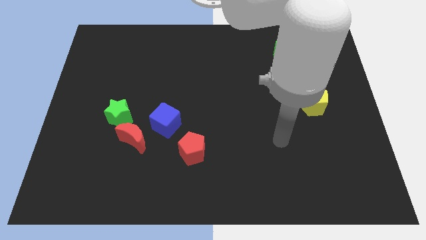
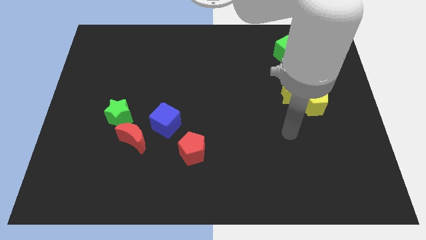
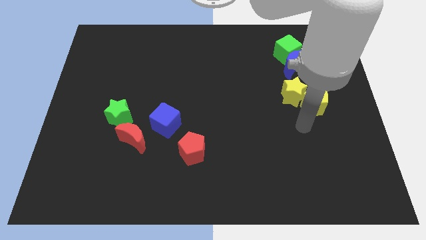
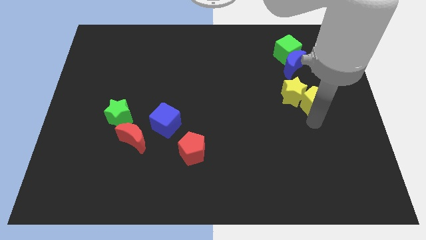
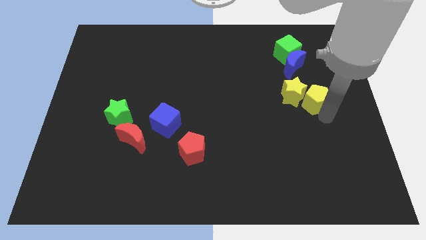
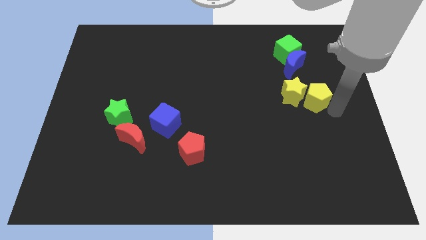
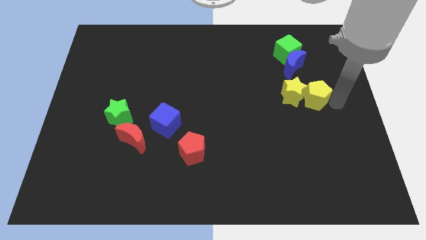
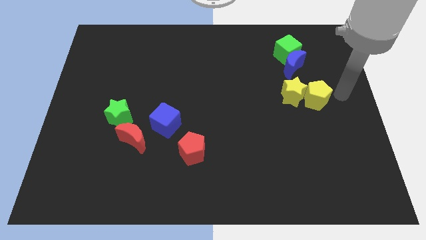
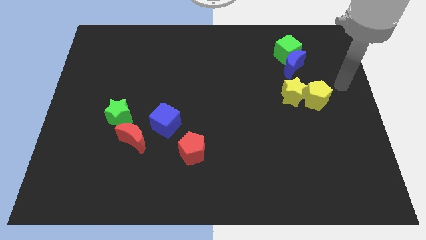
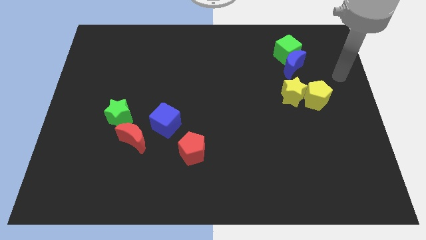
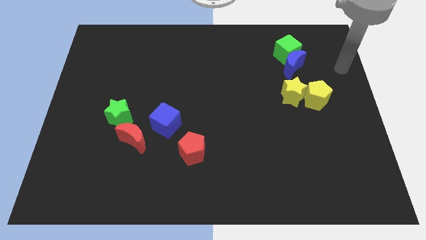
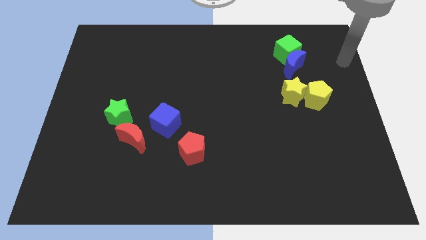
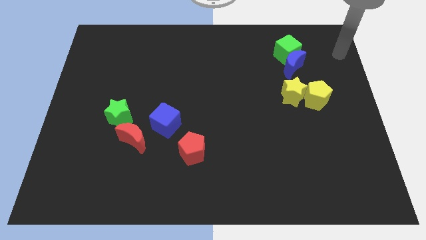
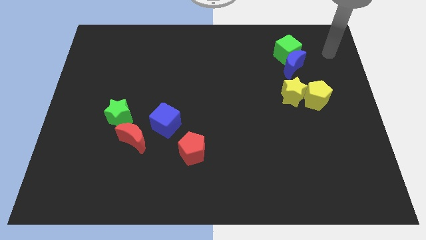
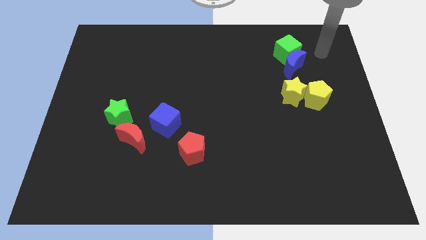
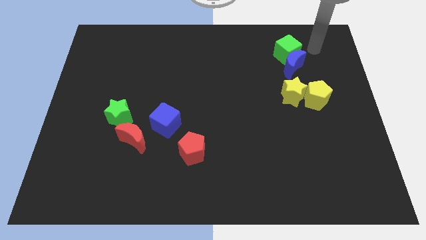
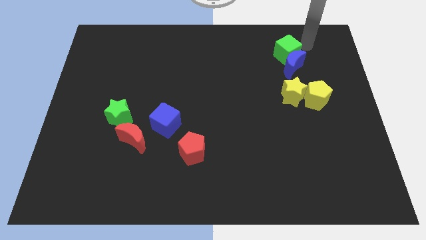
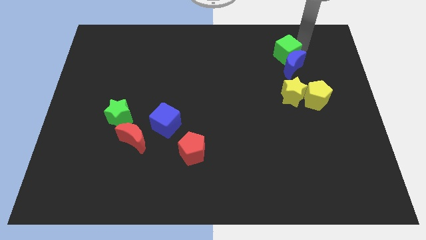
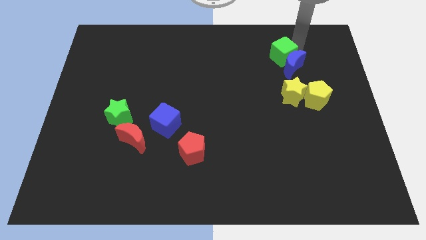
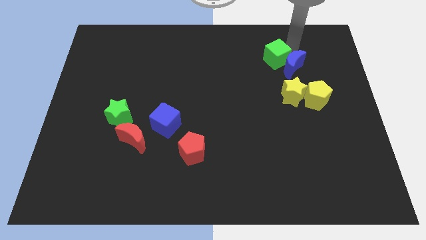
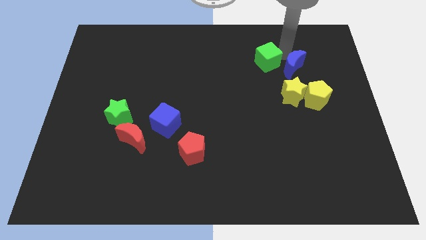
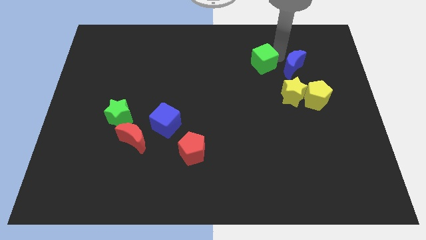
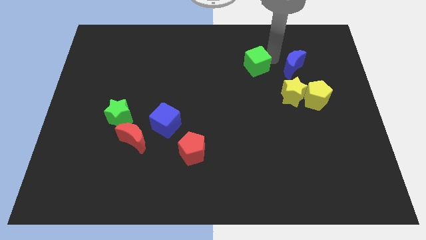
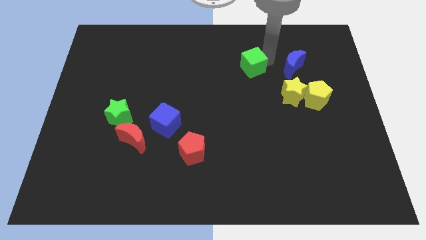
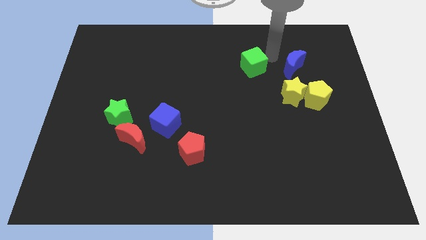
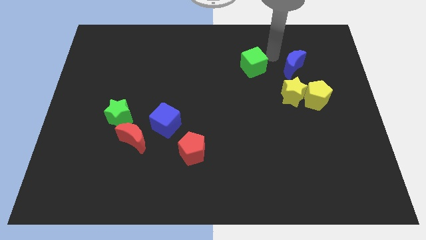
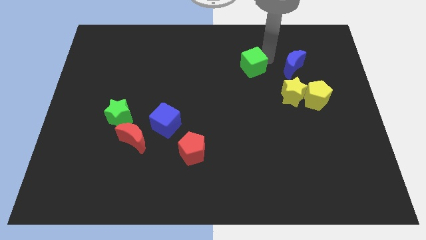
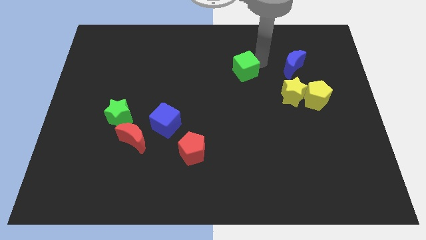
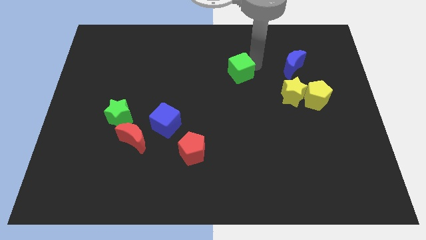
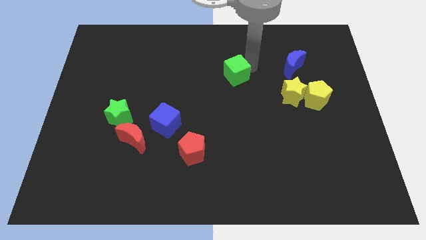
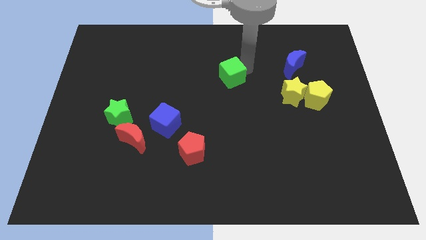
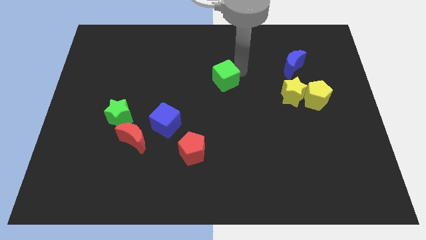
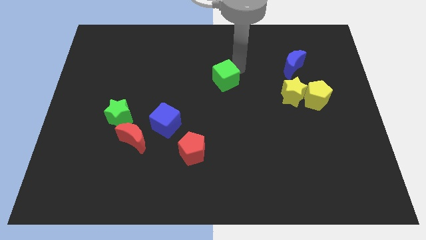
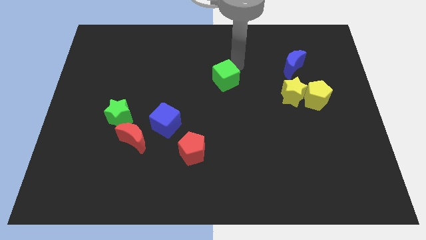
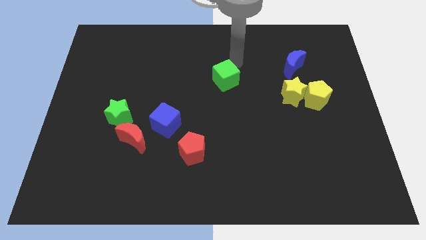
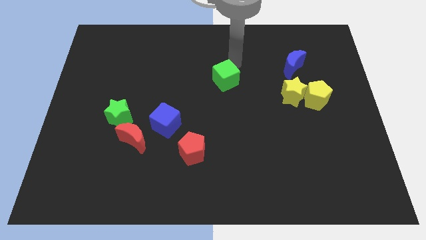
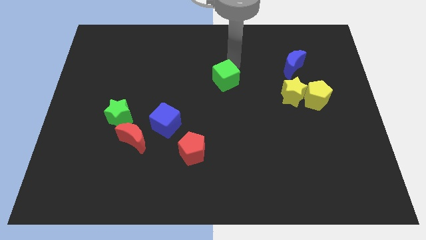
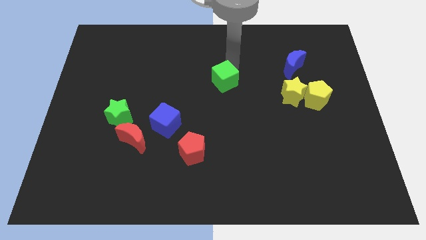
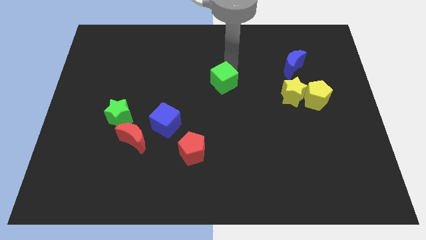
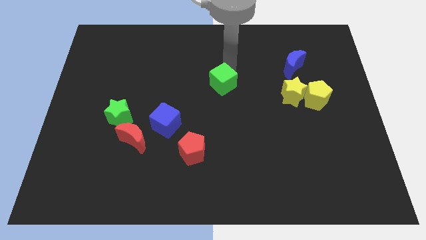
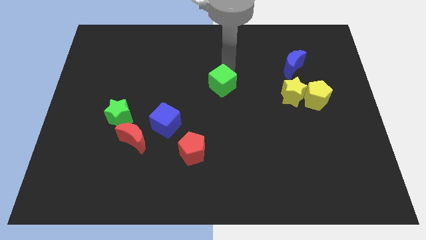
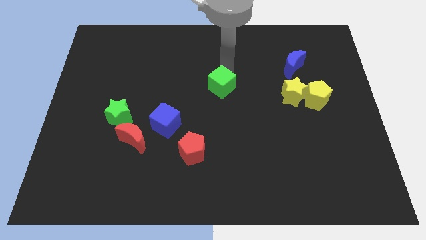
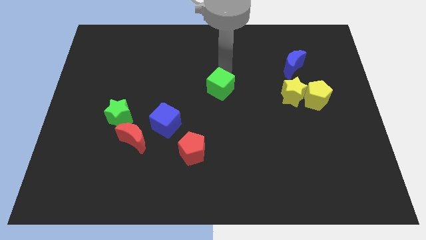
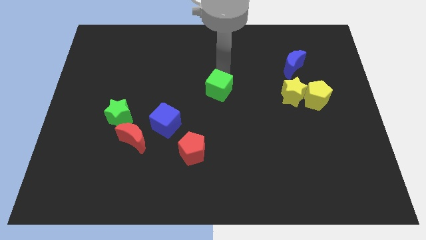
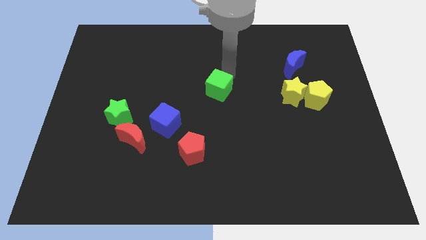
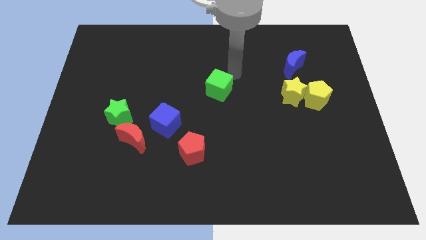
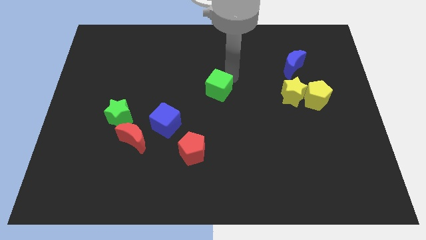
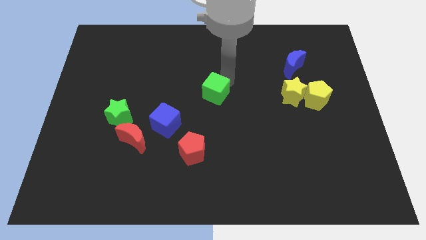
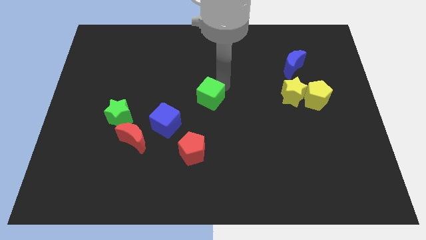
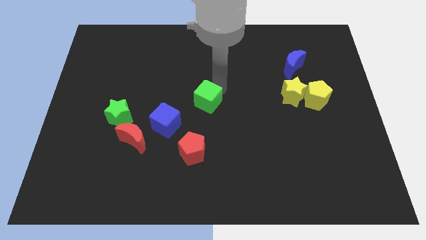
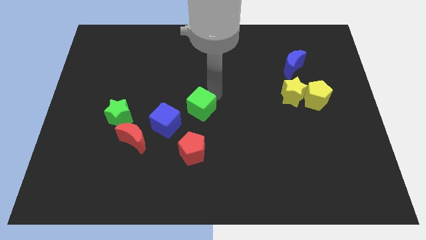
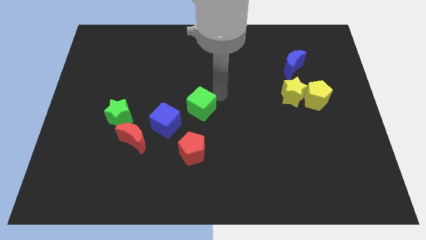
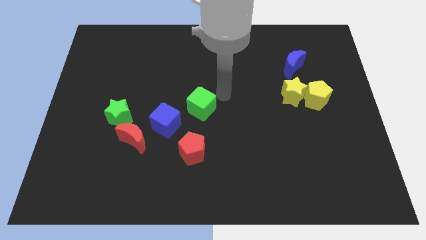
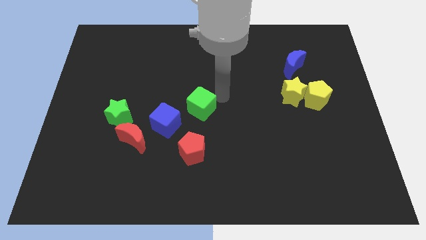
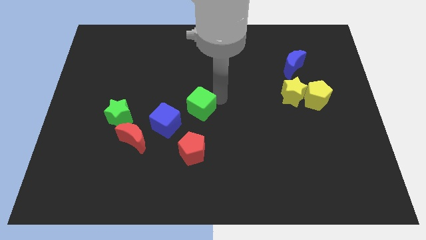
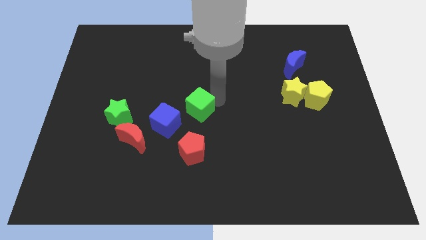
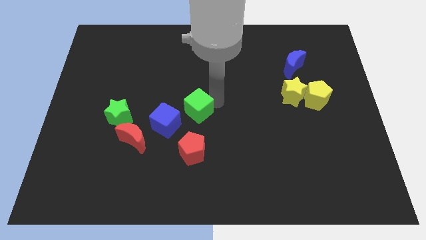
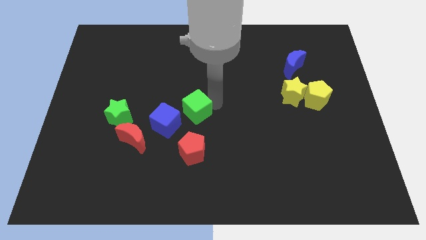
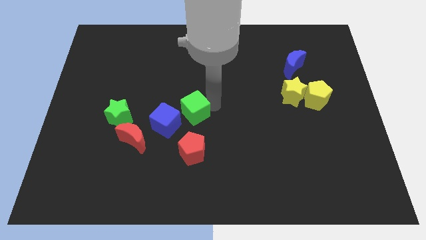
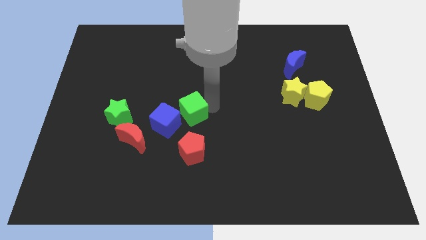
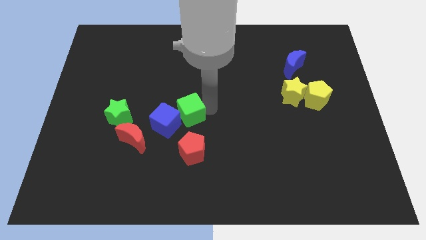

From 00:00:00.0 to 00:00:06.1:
move the green cube close to the blue cube

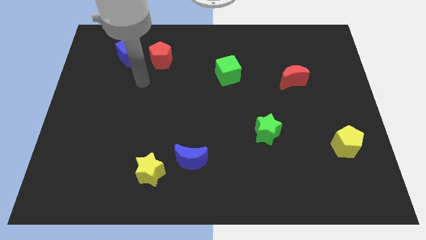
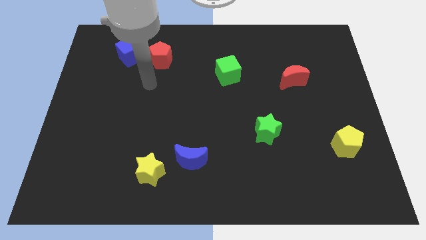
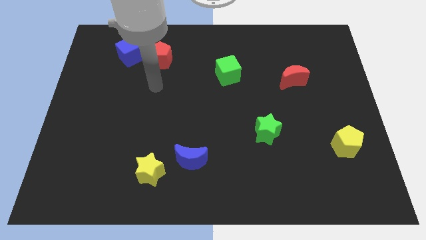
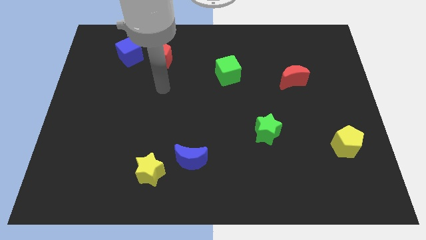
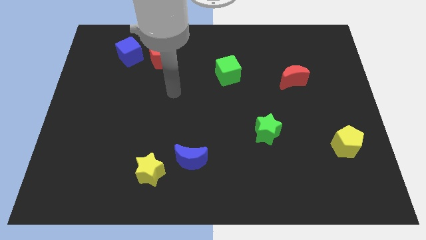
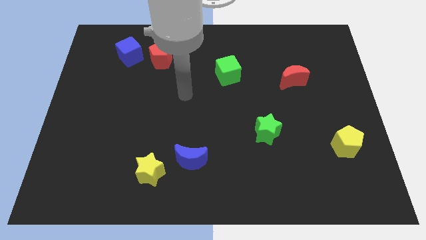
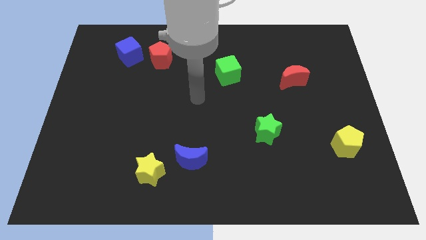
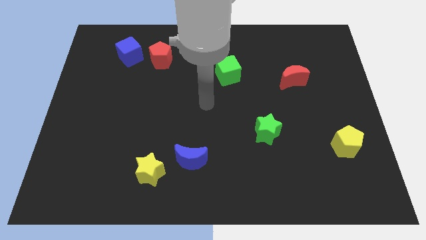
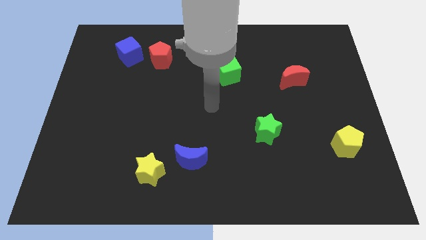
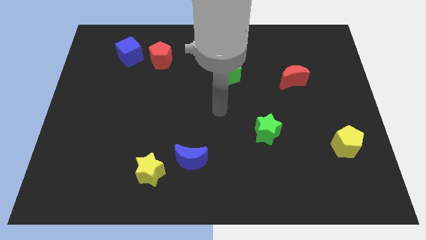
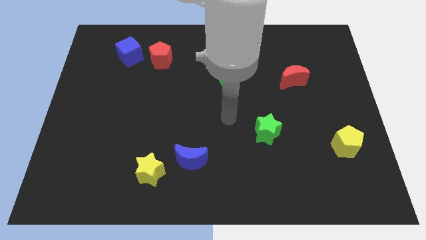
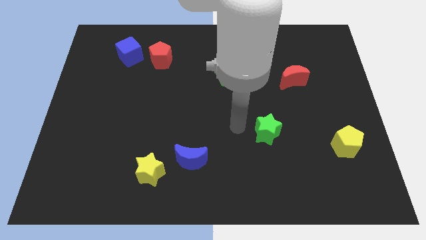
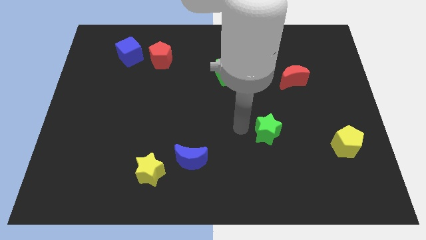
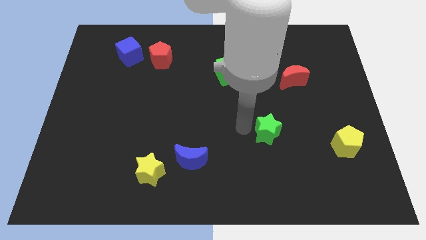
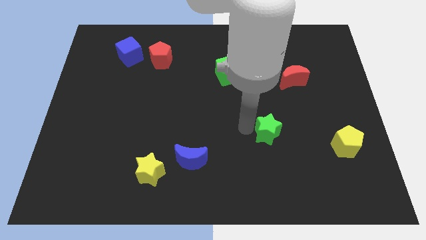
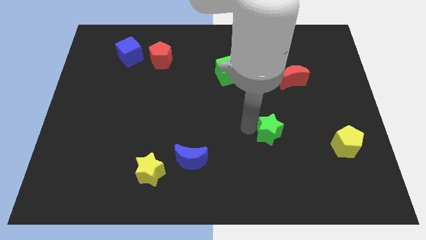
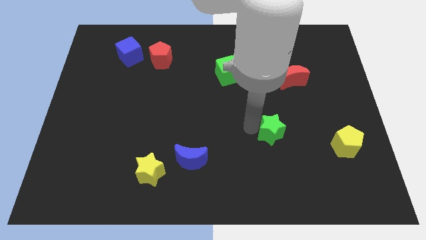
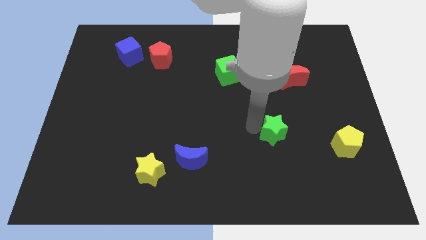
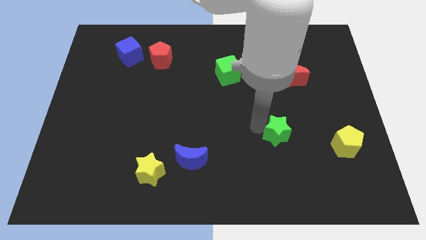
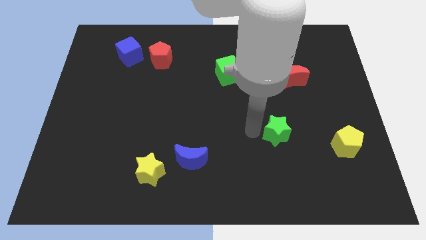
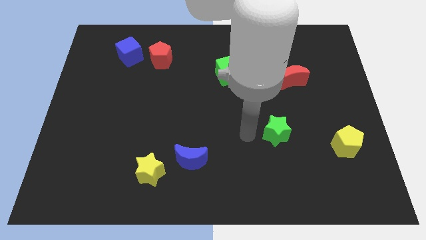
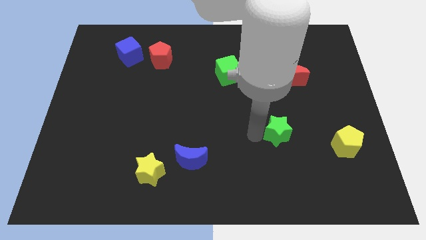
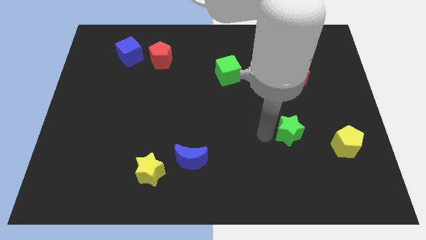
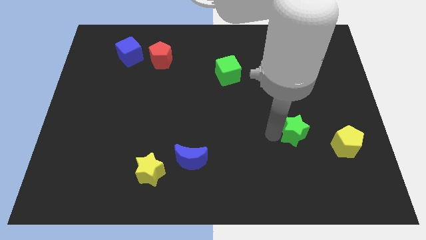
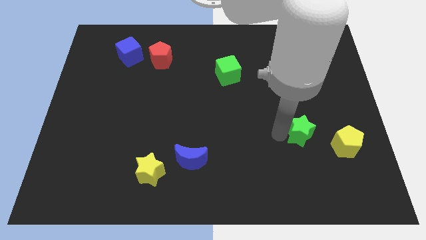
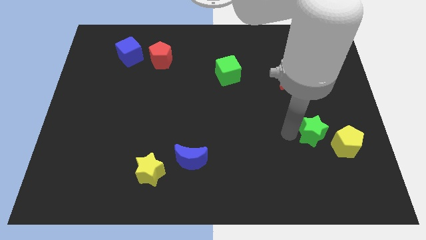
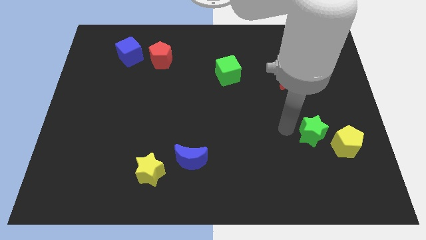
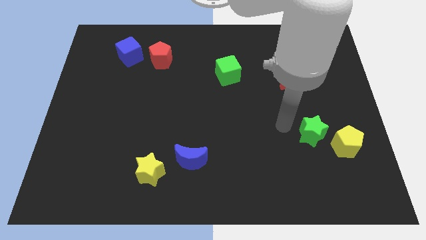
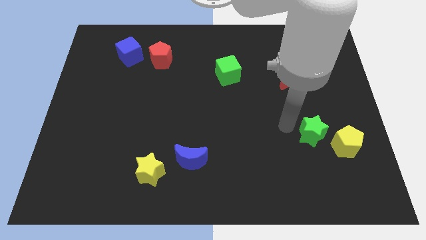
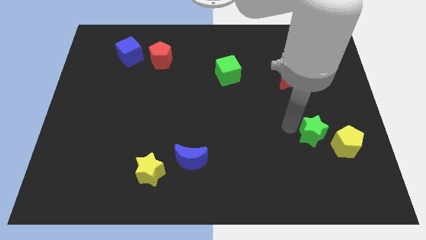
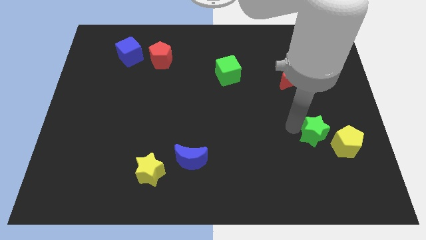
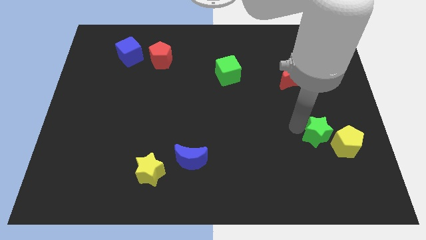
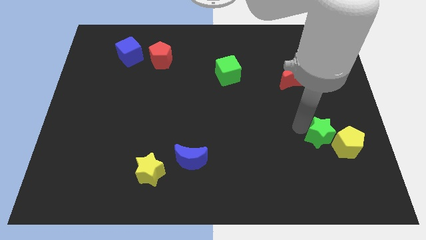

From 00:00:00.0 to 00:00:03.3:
put the green star to the yellow pentagon
